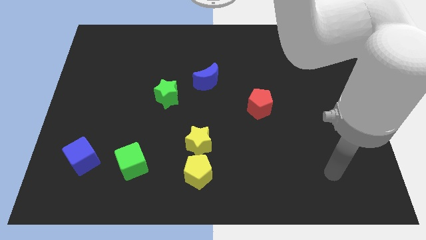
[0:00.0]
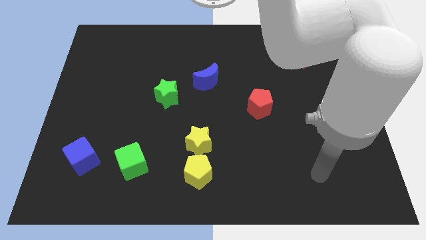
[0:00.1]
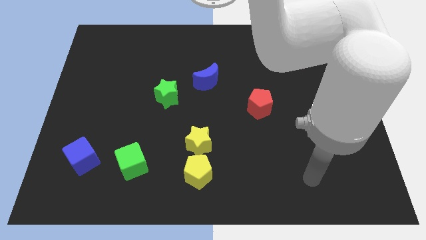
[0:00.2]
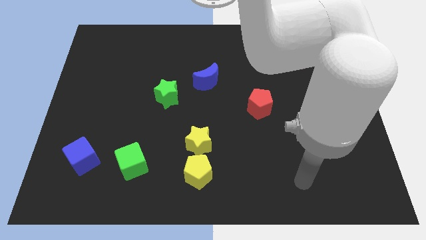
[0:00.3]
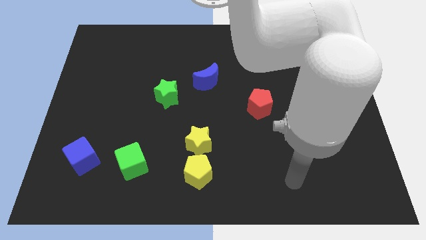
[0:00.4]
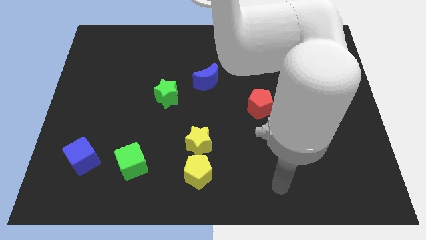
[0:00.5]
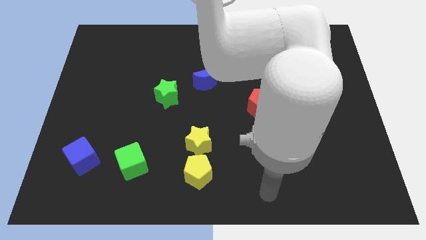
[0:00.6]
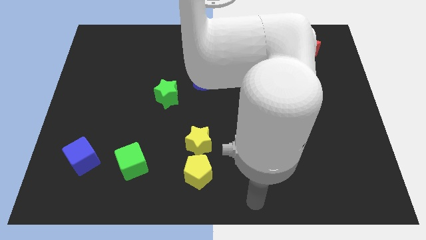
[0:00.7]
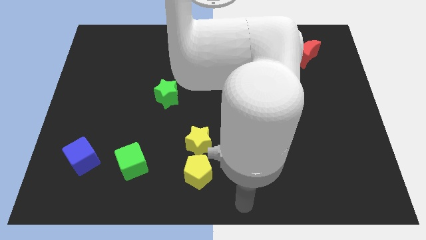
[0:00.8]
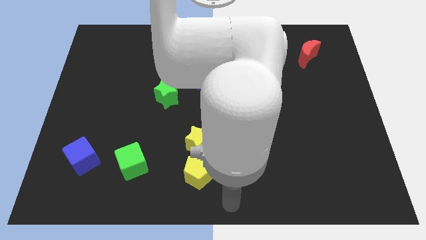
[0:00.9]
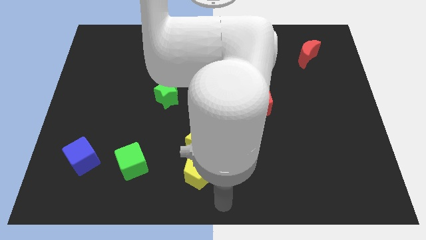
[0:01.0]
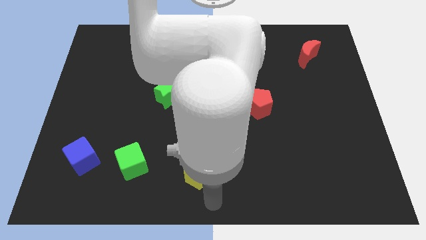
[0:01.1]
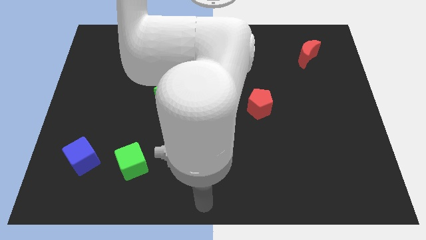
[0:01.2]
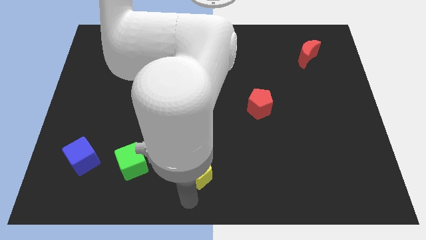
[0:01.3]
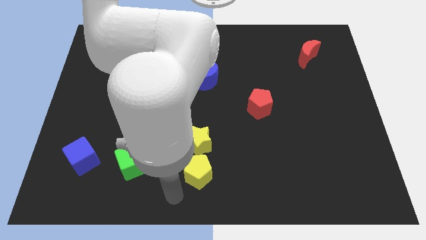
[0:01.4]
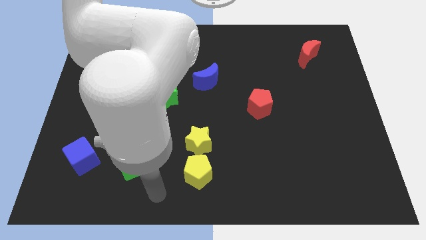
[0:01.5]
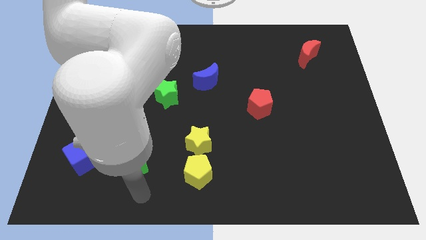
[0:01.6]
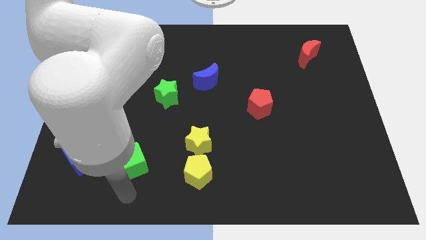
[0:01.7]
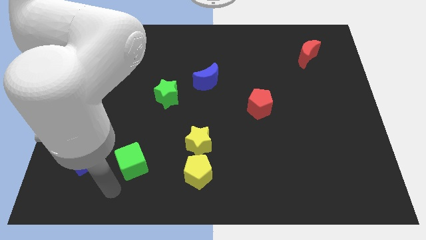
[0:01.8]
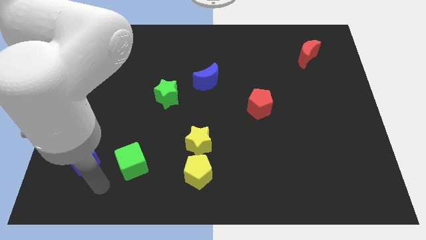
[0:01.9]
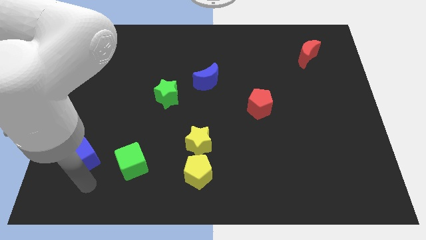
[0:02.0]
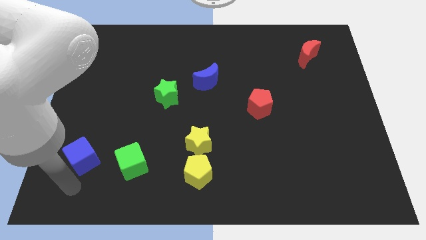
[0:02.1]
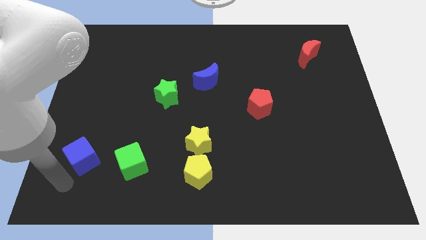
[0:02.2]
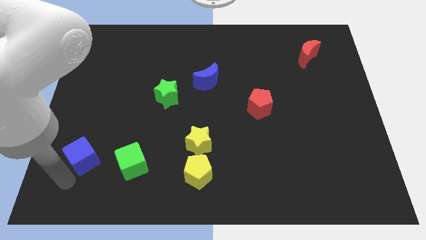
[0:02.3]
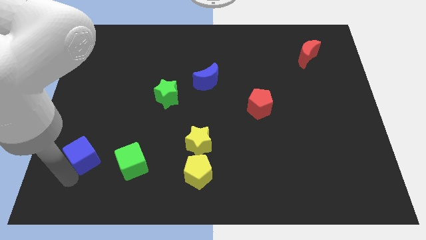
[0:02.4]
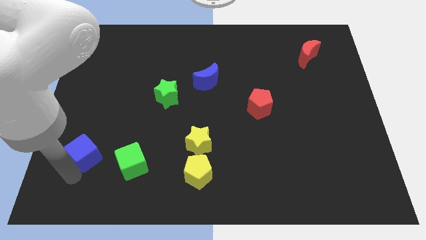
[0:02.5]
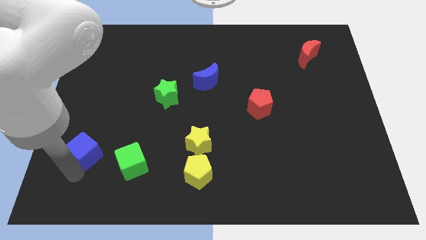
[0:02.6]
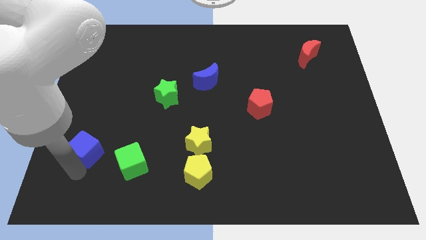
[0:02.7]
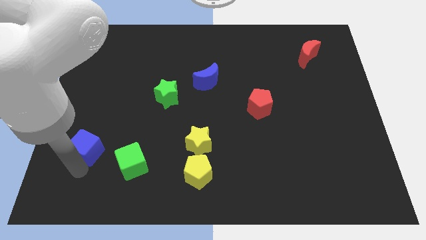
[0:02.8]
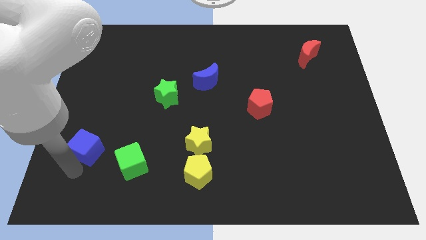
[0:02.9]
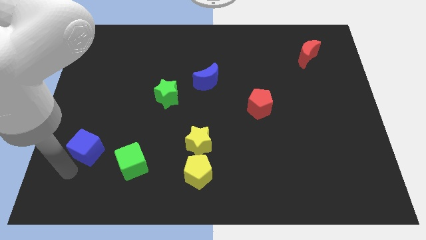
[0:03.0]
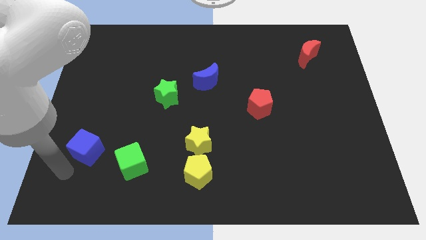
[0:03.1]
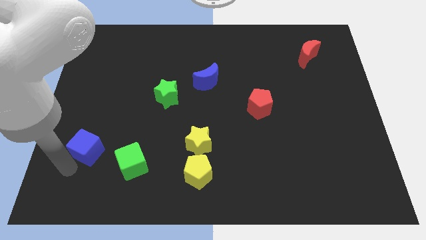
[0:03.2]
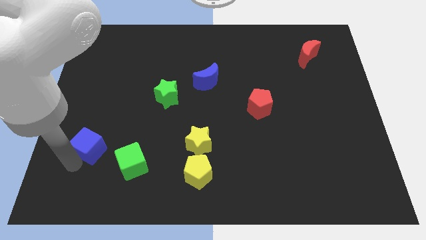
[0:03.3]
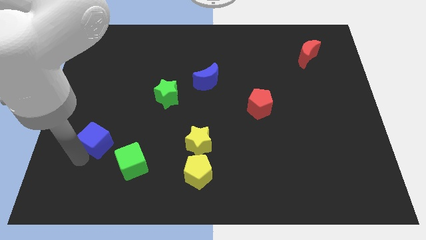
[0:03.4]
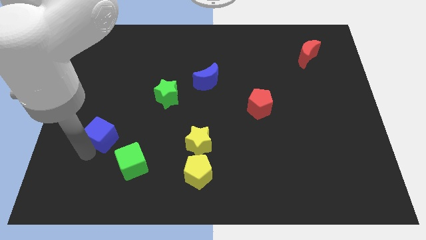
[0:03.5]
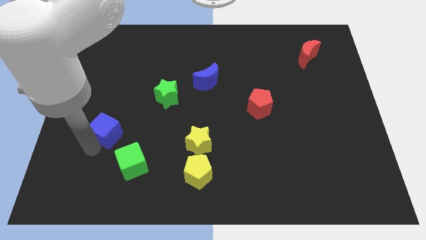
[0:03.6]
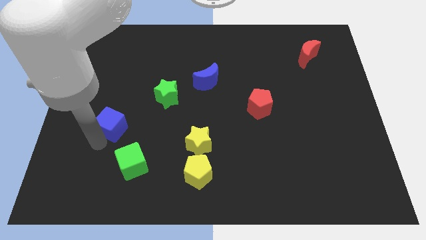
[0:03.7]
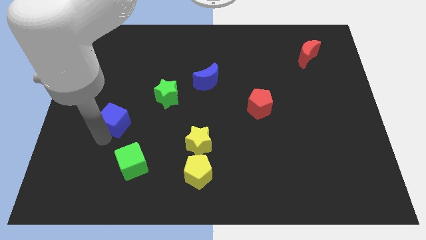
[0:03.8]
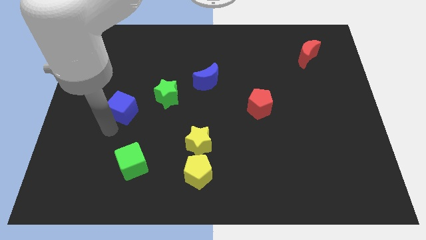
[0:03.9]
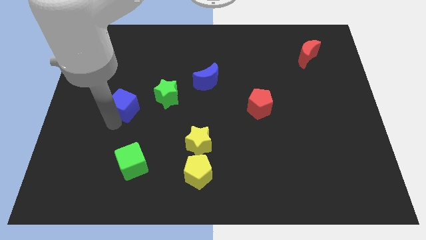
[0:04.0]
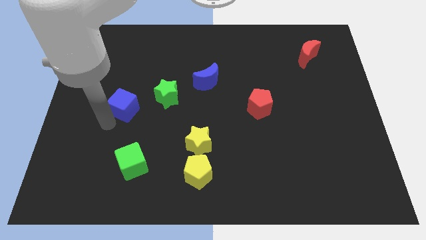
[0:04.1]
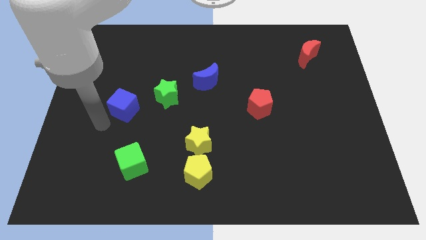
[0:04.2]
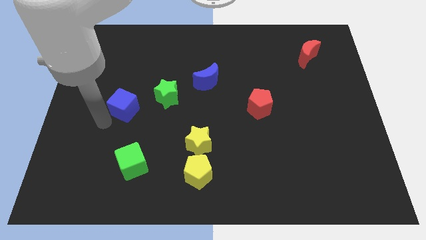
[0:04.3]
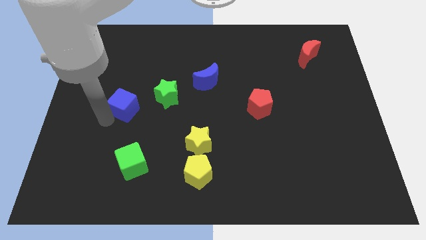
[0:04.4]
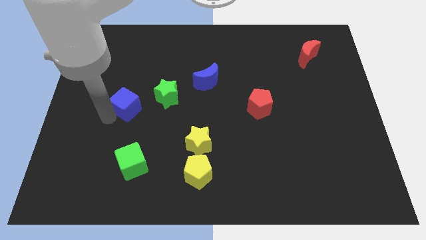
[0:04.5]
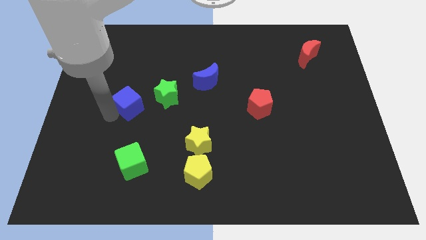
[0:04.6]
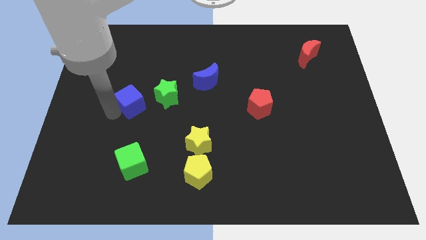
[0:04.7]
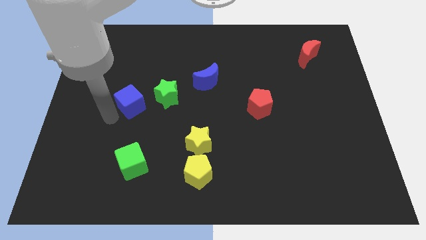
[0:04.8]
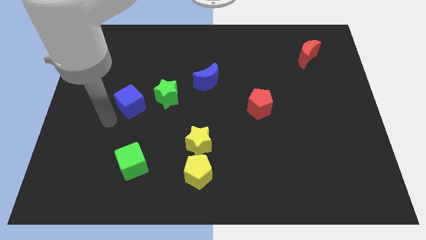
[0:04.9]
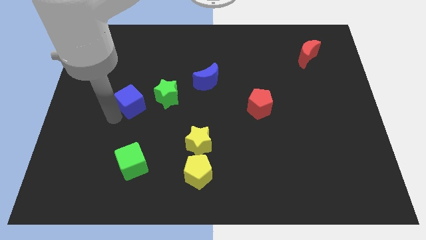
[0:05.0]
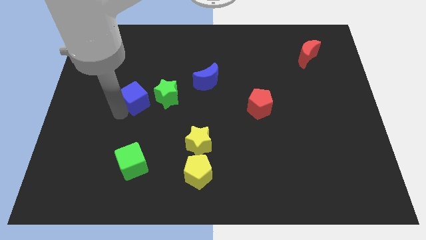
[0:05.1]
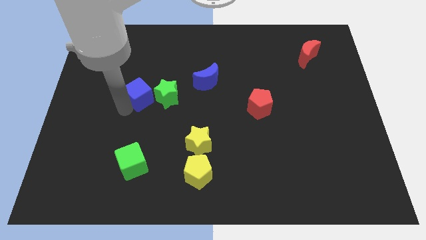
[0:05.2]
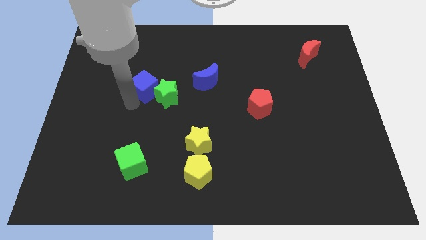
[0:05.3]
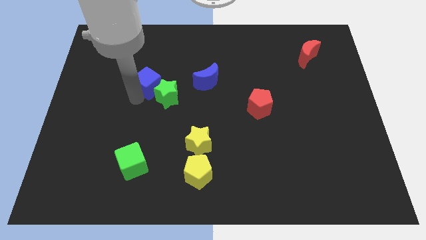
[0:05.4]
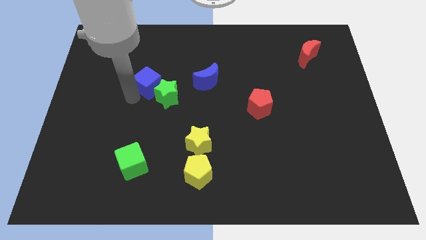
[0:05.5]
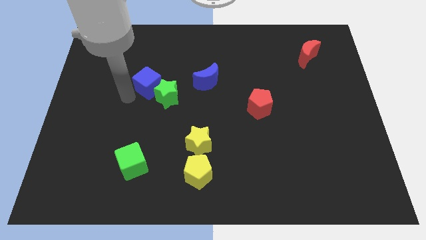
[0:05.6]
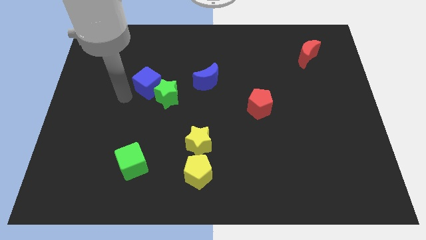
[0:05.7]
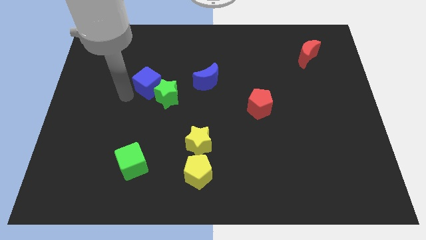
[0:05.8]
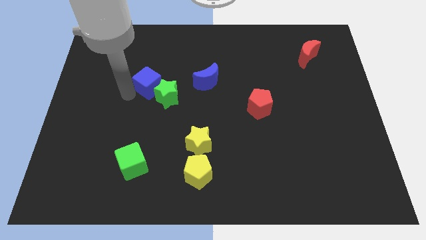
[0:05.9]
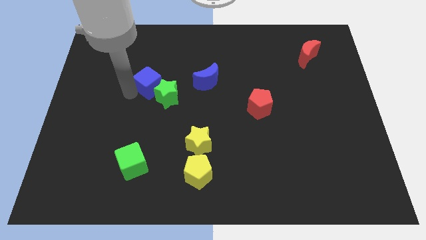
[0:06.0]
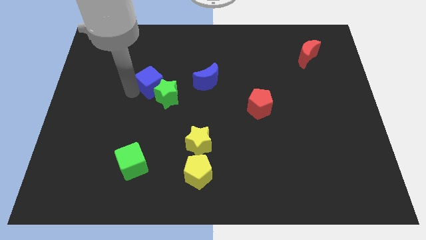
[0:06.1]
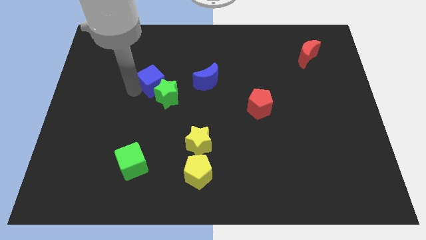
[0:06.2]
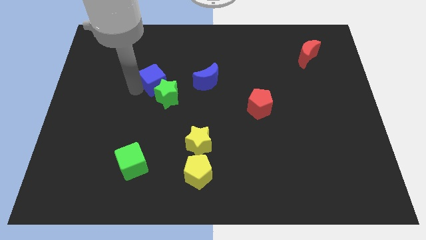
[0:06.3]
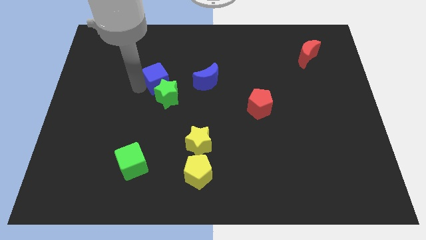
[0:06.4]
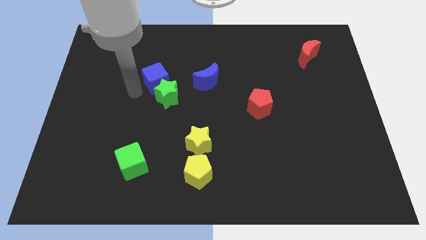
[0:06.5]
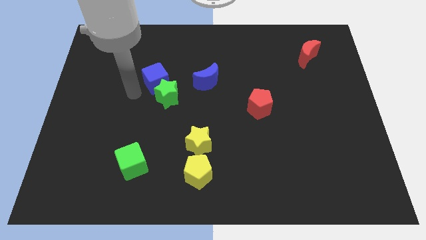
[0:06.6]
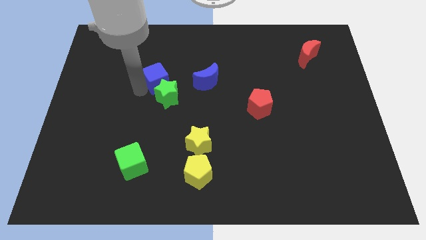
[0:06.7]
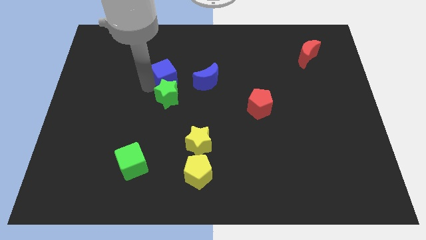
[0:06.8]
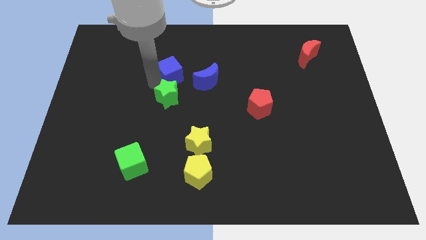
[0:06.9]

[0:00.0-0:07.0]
slide the blue cube to the top left of the blue moon
